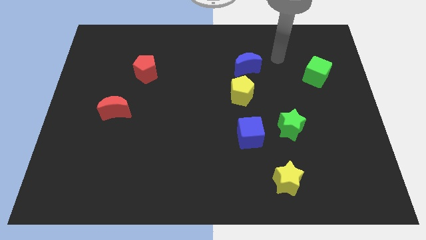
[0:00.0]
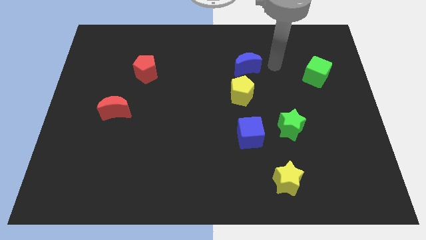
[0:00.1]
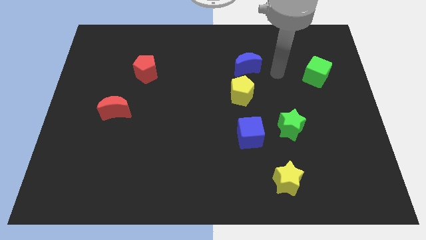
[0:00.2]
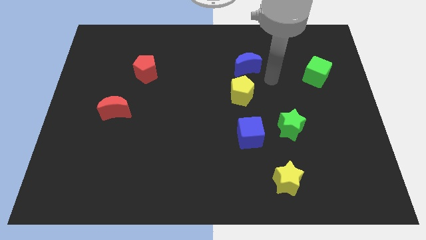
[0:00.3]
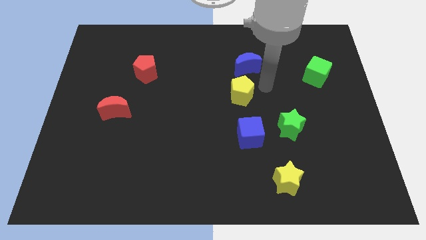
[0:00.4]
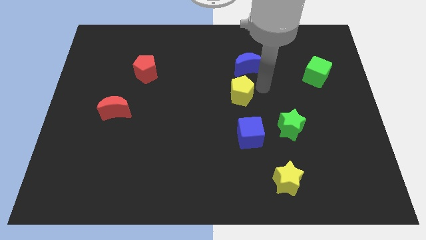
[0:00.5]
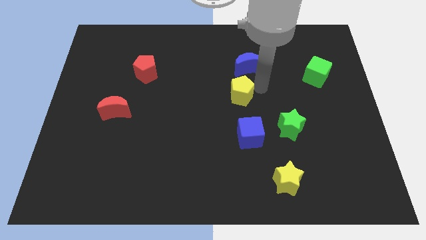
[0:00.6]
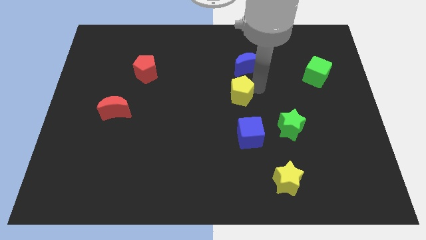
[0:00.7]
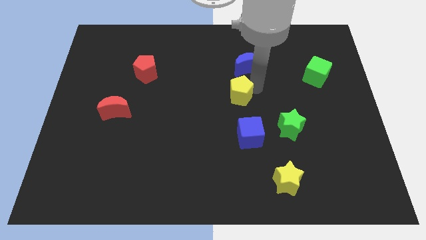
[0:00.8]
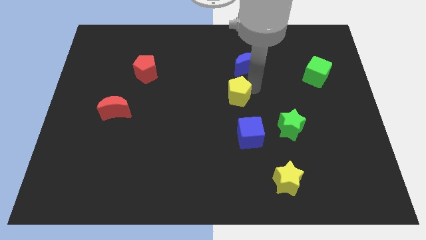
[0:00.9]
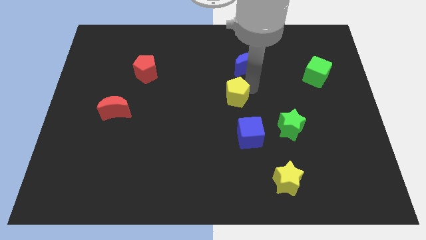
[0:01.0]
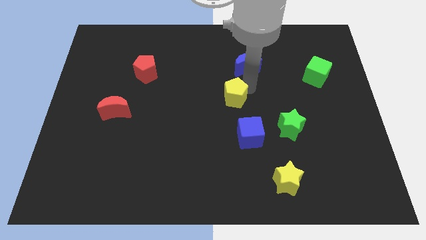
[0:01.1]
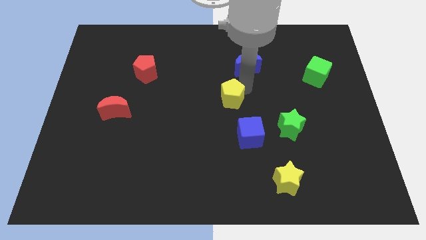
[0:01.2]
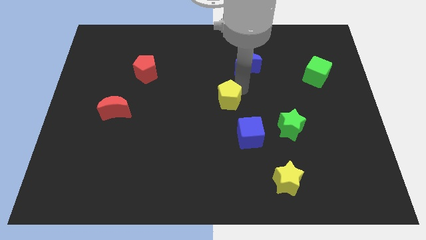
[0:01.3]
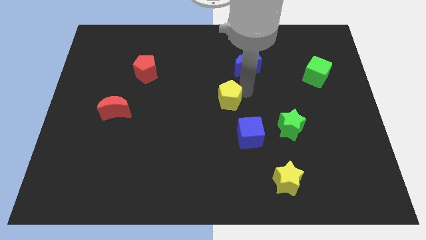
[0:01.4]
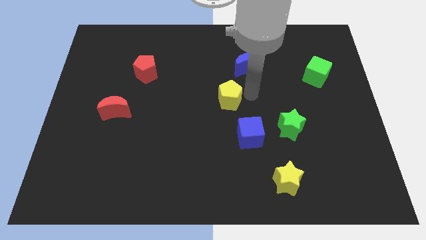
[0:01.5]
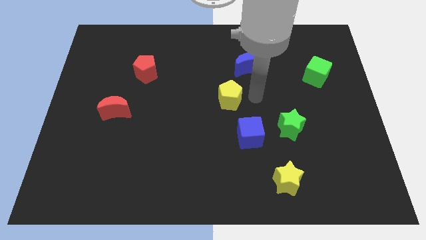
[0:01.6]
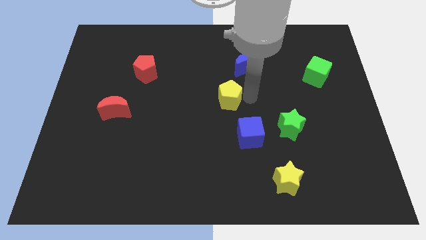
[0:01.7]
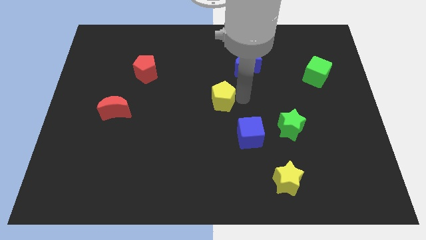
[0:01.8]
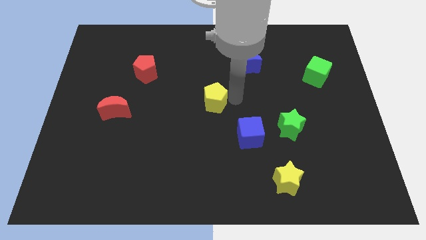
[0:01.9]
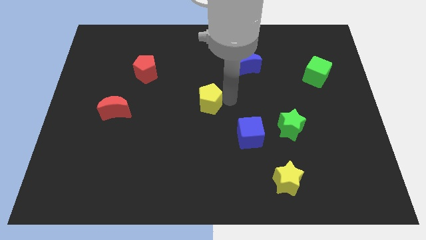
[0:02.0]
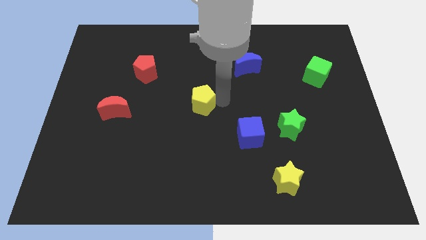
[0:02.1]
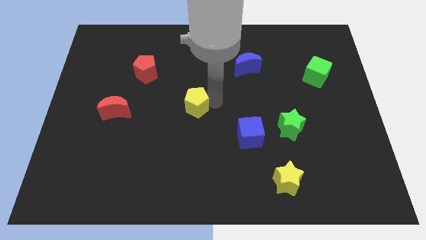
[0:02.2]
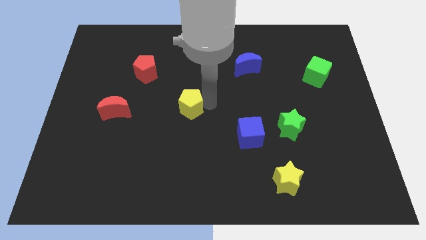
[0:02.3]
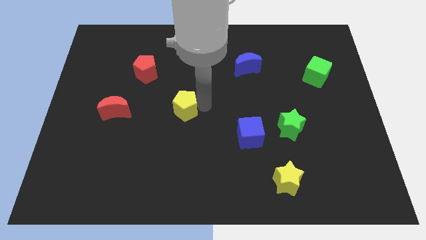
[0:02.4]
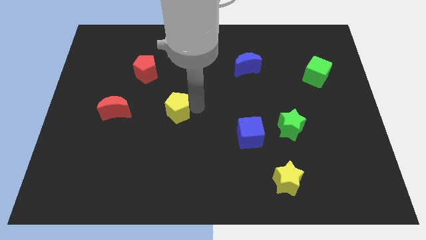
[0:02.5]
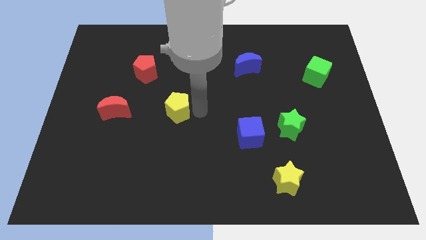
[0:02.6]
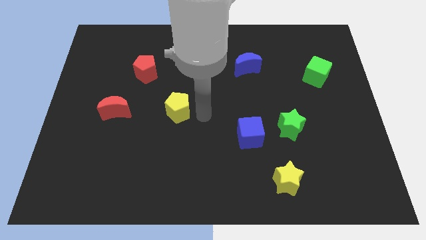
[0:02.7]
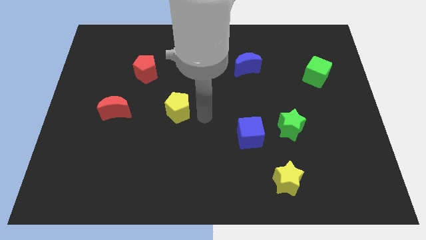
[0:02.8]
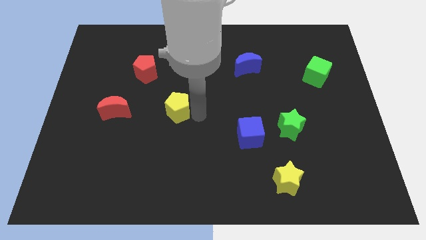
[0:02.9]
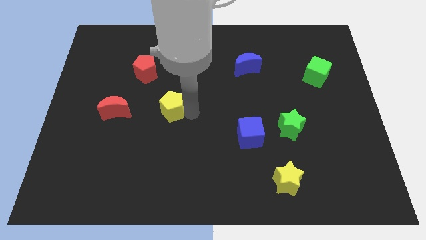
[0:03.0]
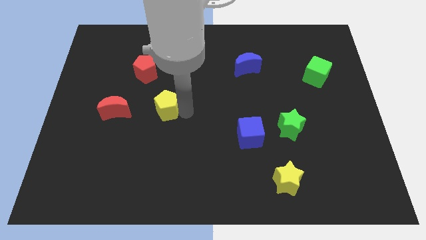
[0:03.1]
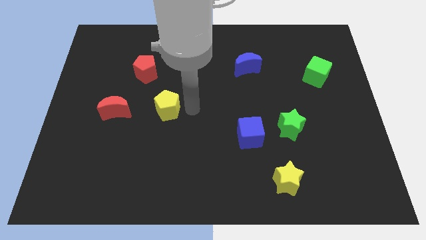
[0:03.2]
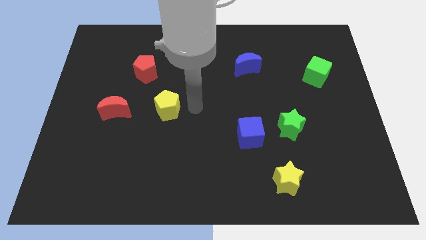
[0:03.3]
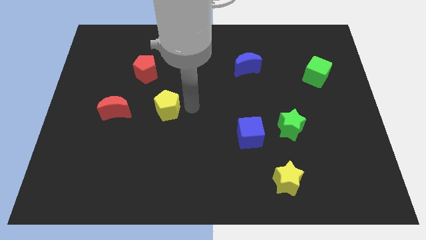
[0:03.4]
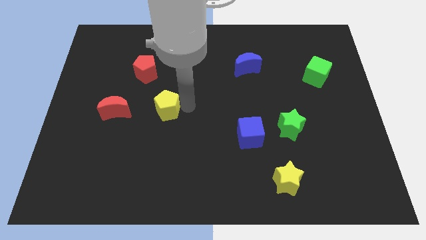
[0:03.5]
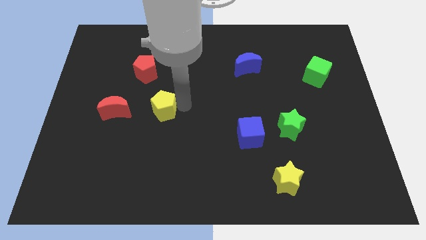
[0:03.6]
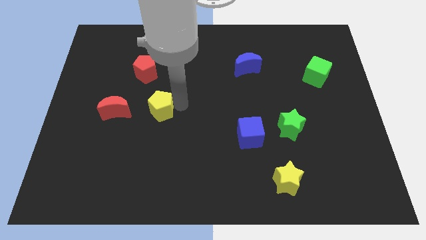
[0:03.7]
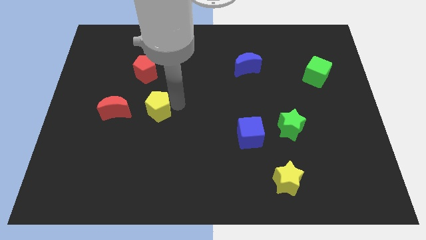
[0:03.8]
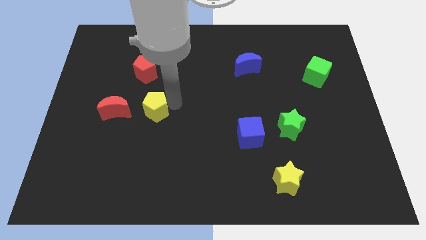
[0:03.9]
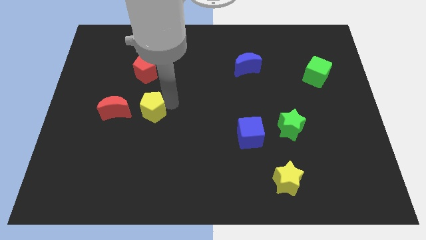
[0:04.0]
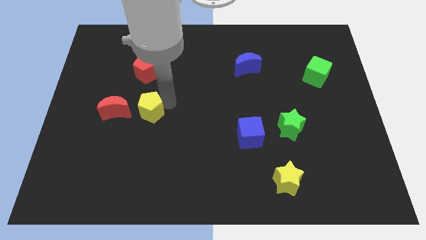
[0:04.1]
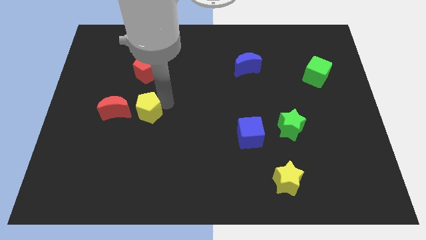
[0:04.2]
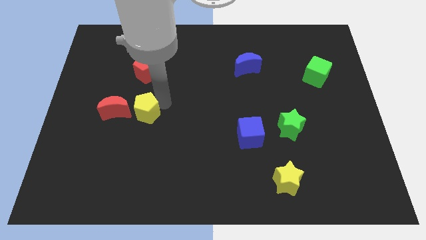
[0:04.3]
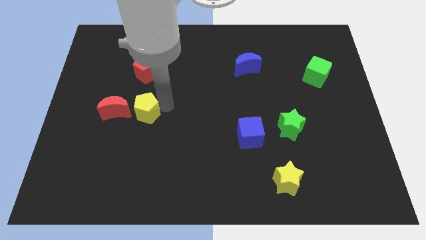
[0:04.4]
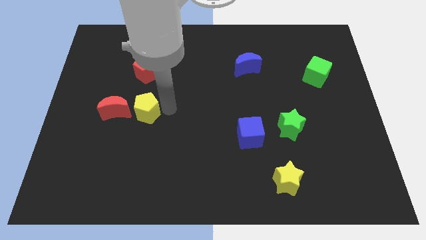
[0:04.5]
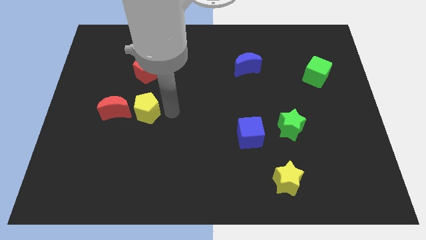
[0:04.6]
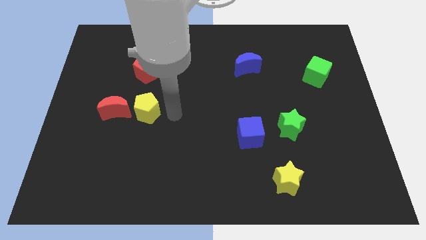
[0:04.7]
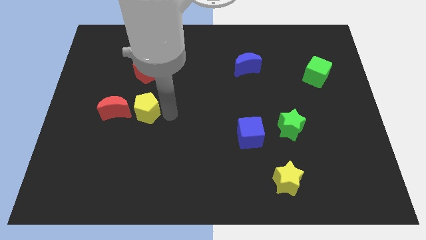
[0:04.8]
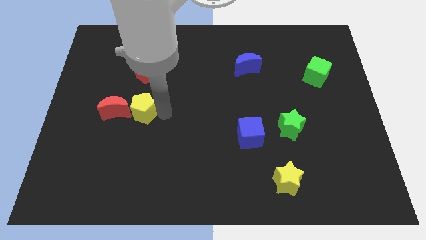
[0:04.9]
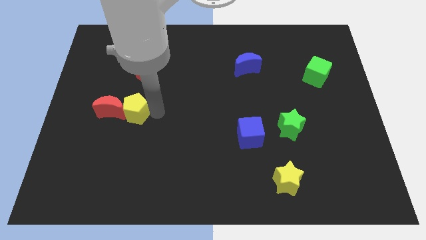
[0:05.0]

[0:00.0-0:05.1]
put the yellow pentagon next to the red moon

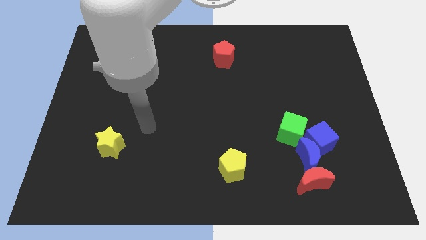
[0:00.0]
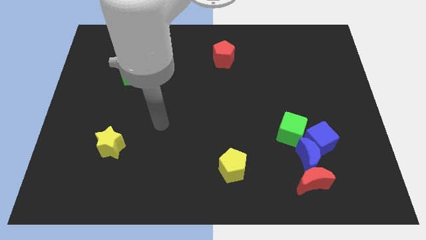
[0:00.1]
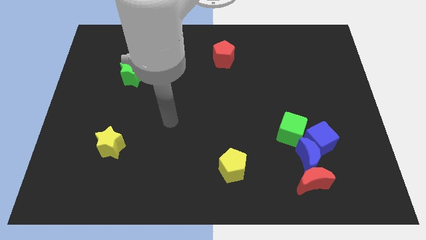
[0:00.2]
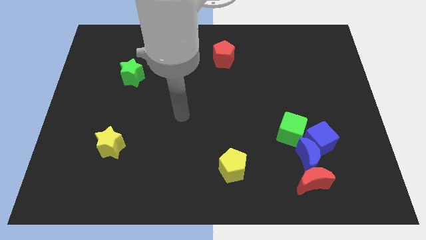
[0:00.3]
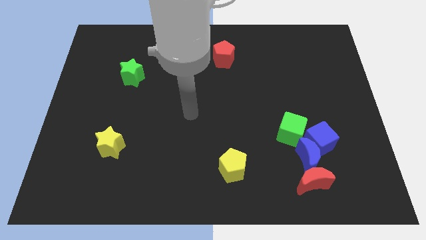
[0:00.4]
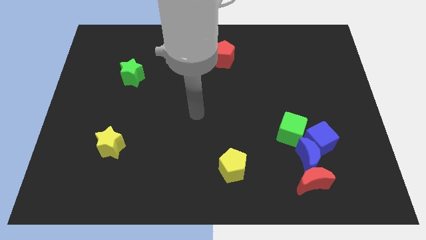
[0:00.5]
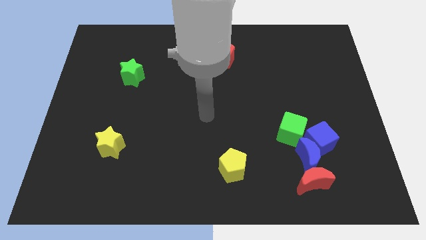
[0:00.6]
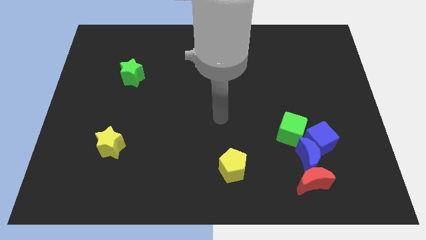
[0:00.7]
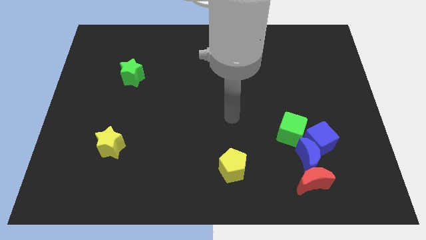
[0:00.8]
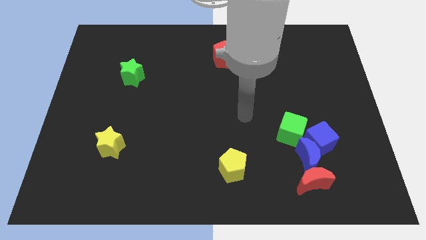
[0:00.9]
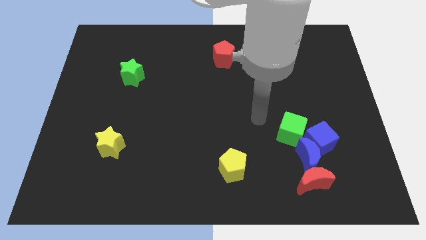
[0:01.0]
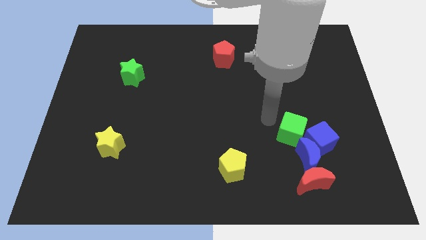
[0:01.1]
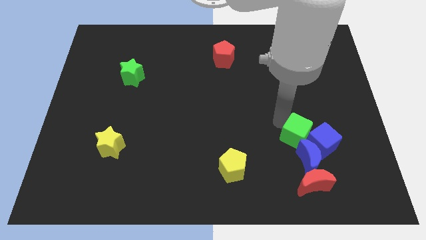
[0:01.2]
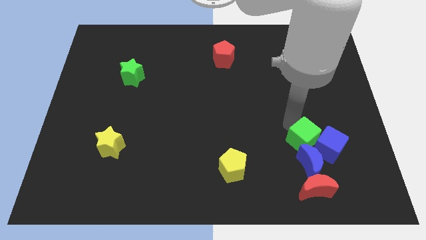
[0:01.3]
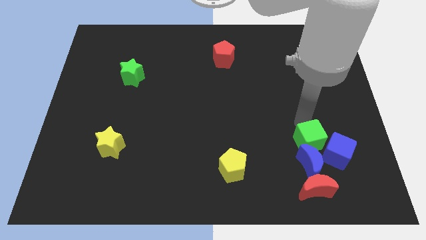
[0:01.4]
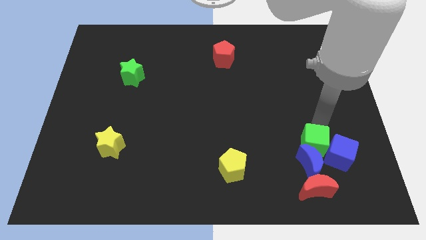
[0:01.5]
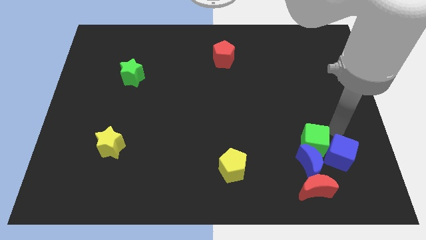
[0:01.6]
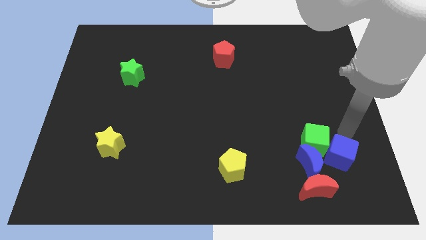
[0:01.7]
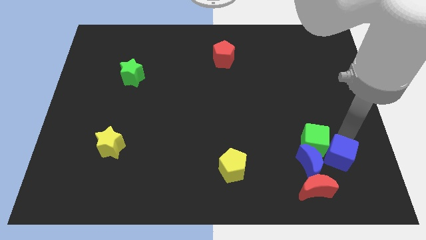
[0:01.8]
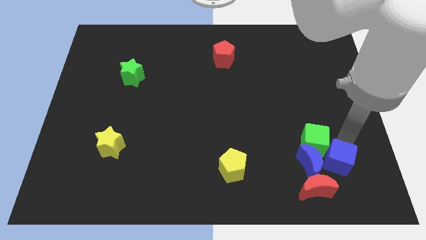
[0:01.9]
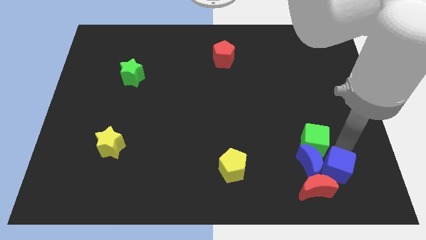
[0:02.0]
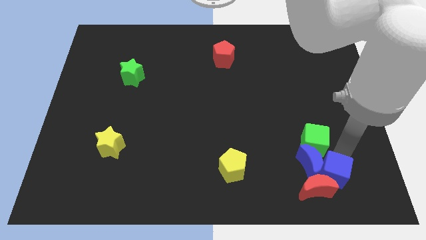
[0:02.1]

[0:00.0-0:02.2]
slide the blue cube towards the red moon
